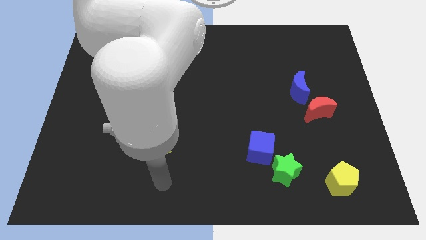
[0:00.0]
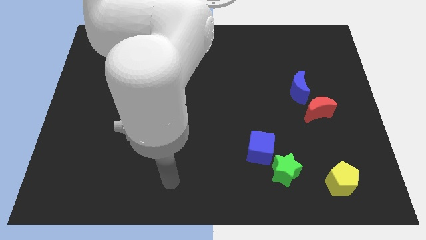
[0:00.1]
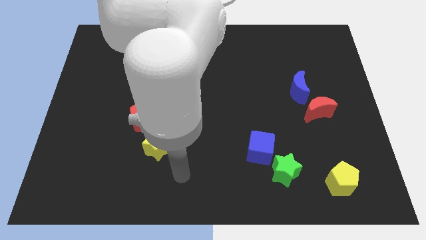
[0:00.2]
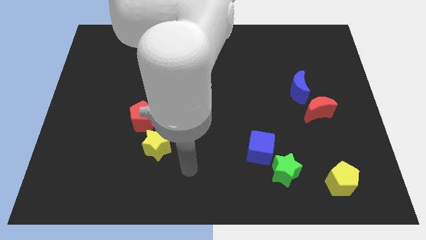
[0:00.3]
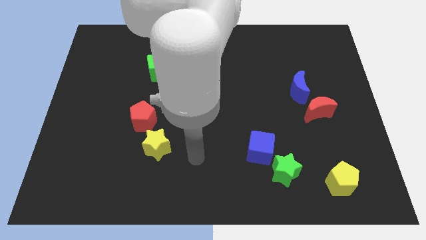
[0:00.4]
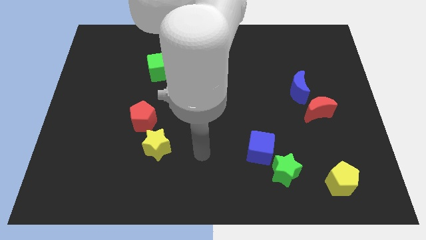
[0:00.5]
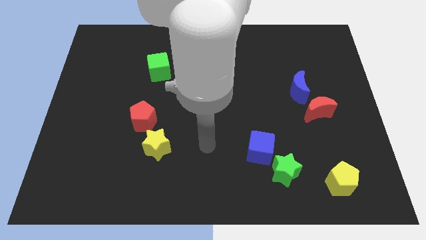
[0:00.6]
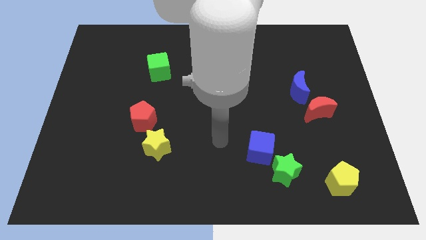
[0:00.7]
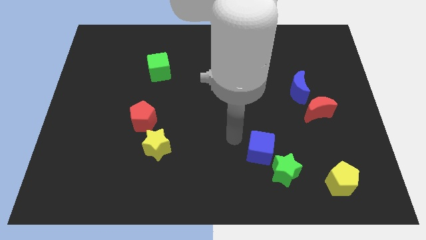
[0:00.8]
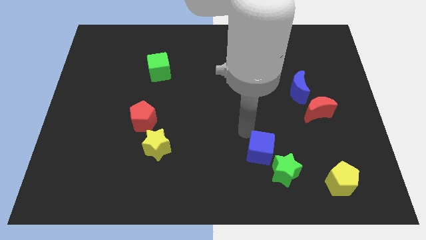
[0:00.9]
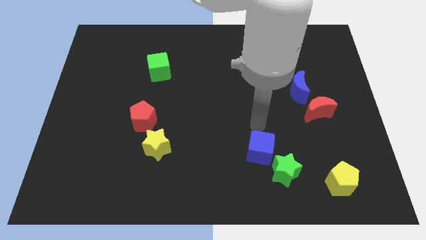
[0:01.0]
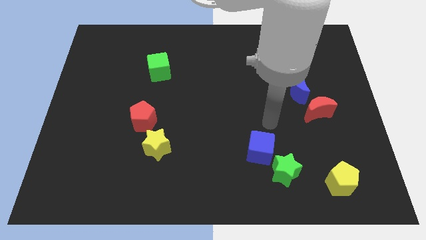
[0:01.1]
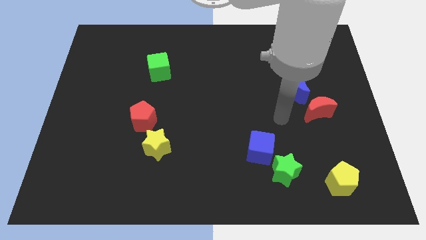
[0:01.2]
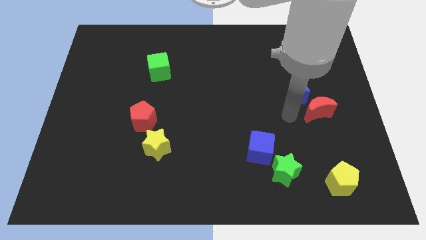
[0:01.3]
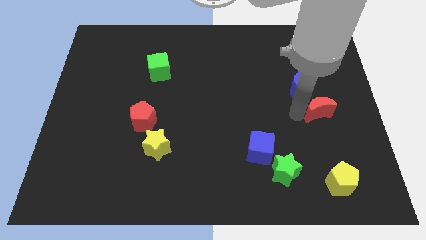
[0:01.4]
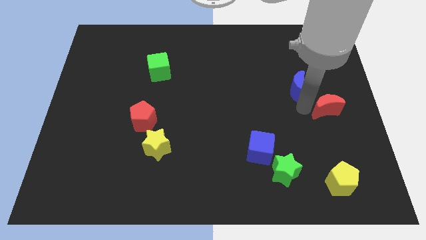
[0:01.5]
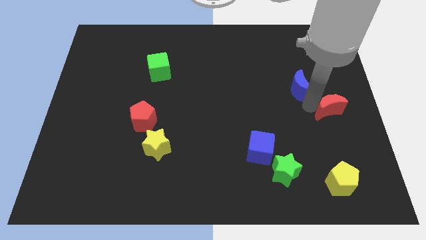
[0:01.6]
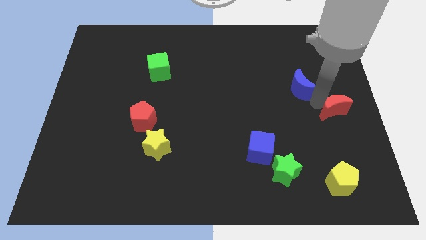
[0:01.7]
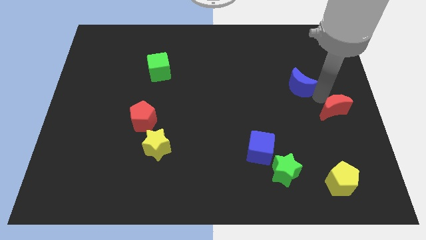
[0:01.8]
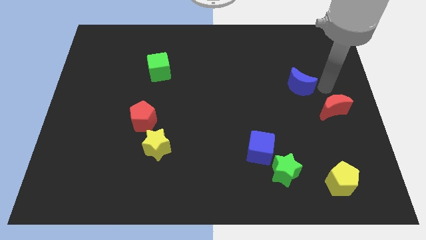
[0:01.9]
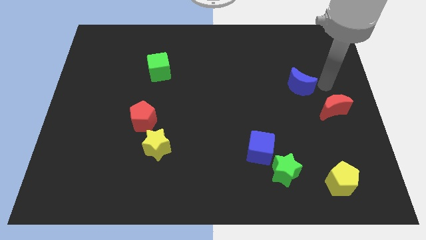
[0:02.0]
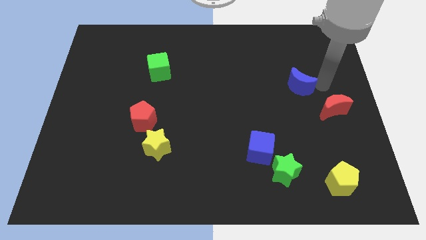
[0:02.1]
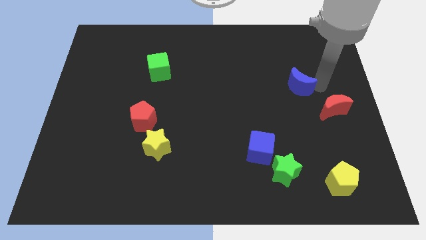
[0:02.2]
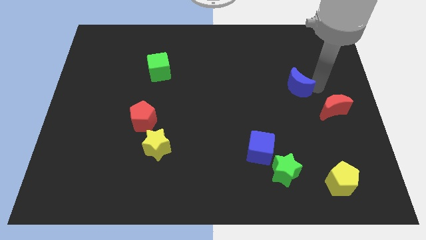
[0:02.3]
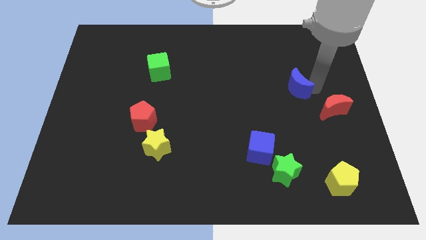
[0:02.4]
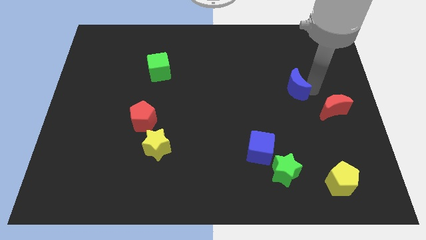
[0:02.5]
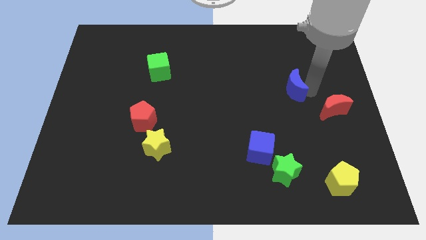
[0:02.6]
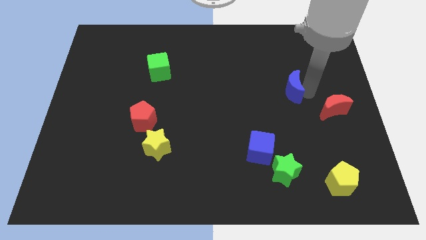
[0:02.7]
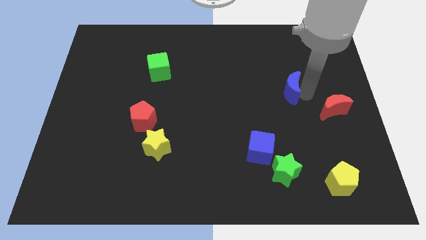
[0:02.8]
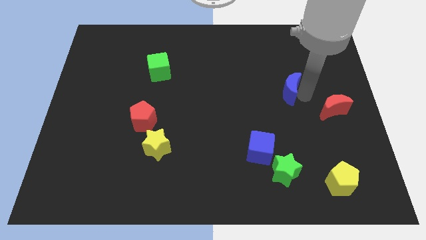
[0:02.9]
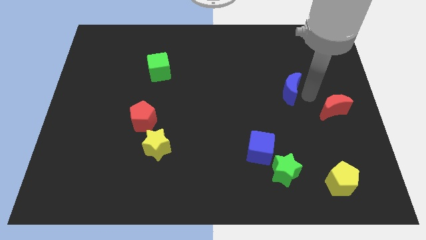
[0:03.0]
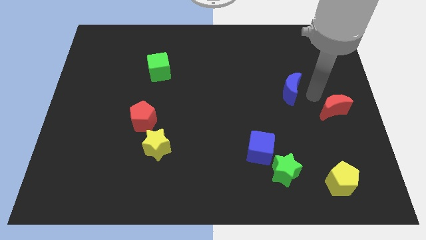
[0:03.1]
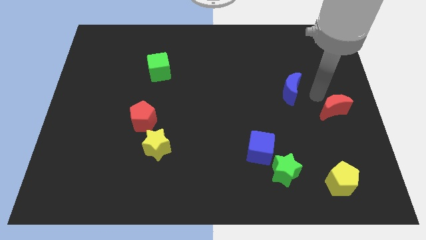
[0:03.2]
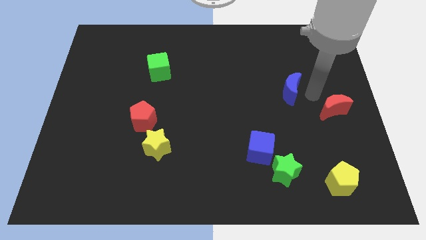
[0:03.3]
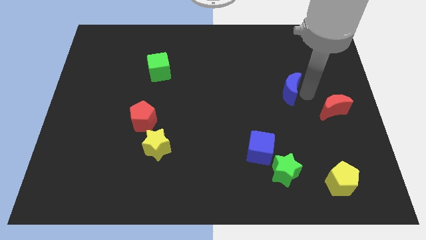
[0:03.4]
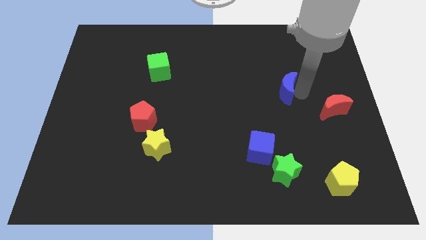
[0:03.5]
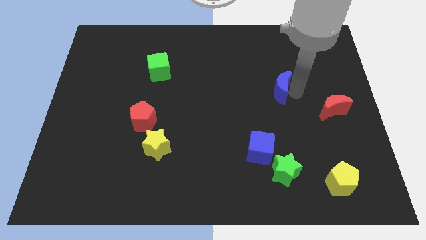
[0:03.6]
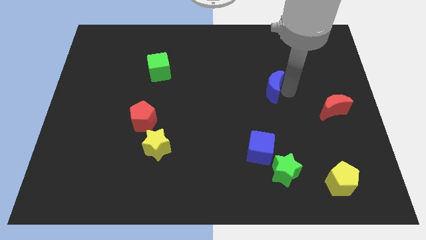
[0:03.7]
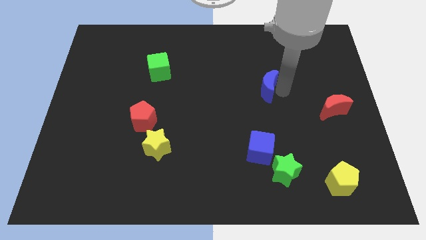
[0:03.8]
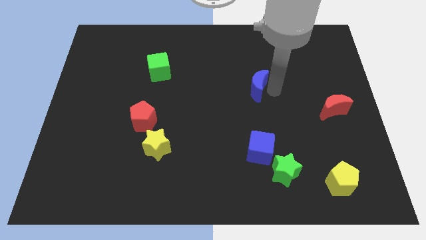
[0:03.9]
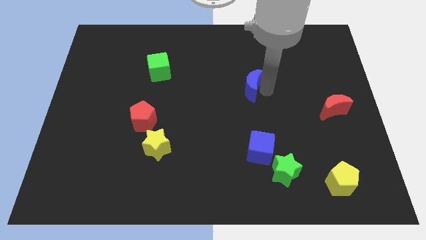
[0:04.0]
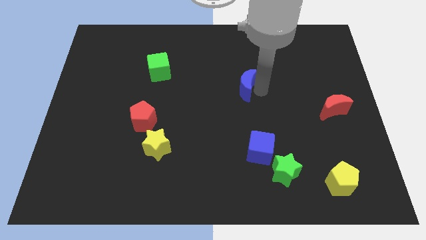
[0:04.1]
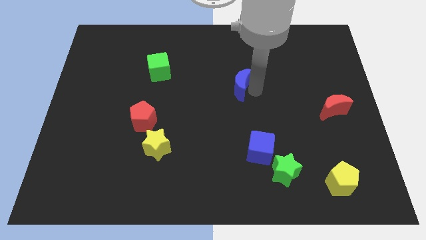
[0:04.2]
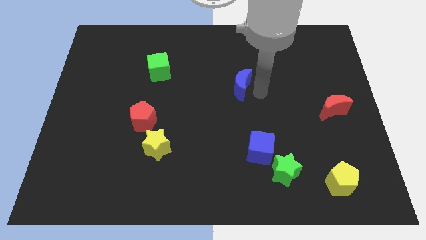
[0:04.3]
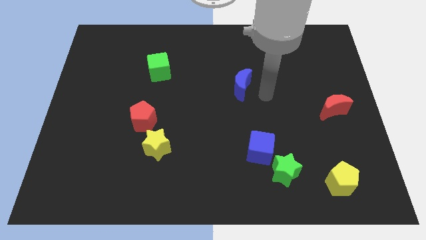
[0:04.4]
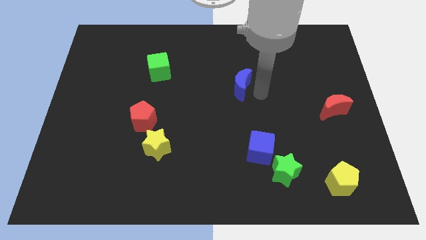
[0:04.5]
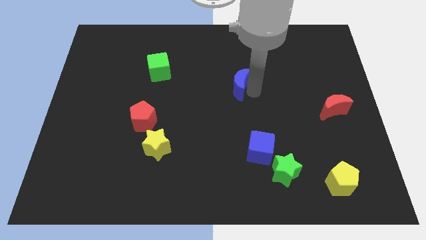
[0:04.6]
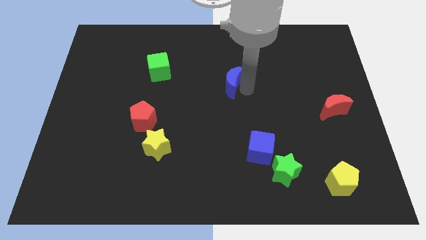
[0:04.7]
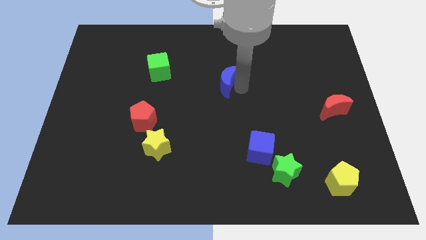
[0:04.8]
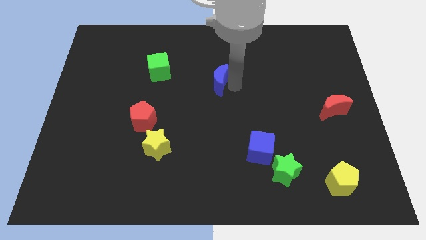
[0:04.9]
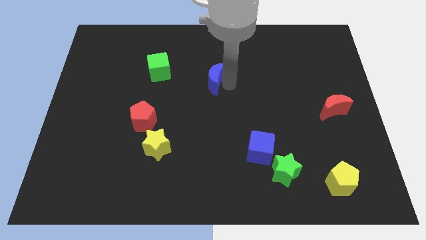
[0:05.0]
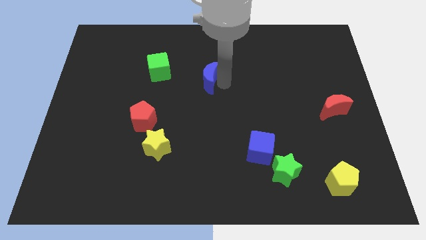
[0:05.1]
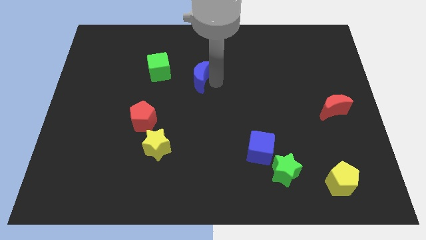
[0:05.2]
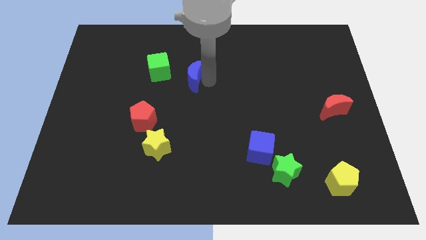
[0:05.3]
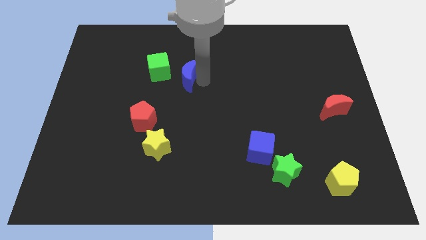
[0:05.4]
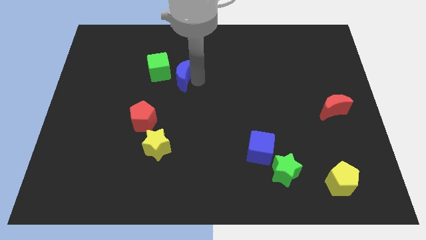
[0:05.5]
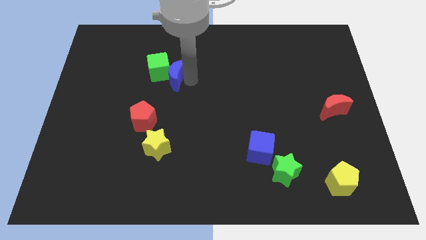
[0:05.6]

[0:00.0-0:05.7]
push the blue moon next to the green cube

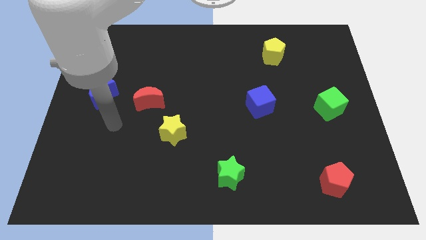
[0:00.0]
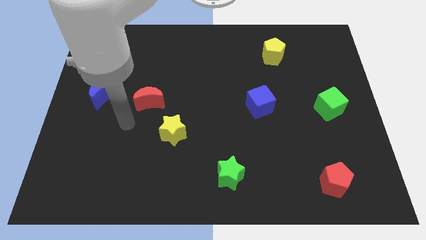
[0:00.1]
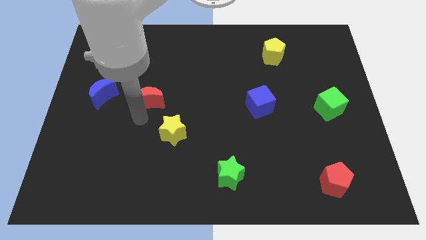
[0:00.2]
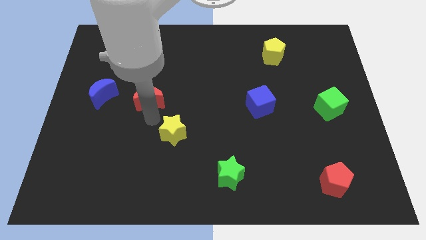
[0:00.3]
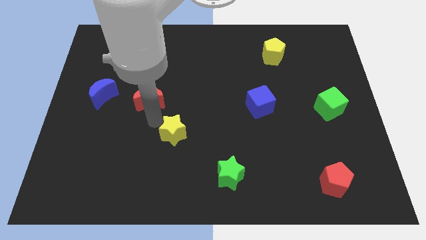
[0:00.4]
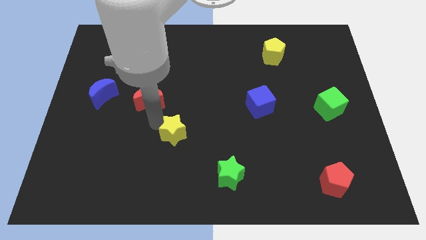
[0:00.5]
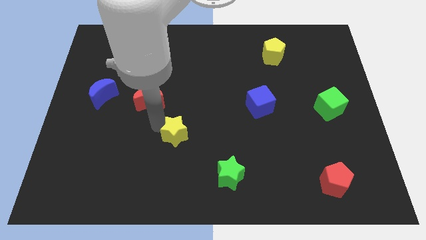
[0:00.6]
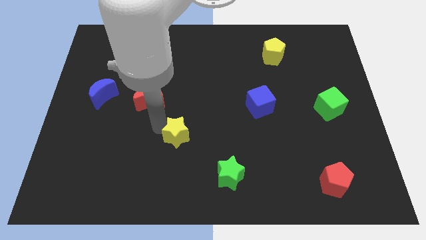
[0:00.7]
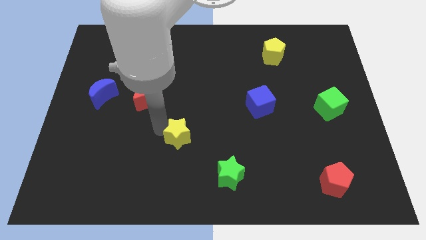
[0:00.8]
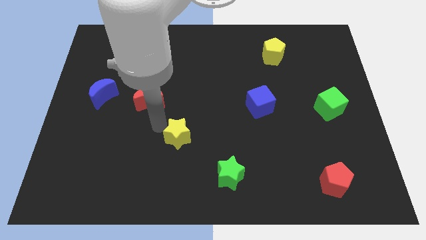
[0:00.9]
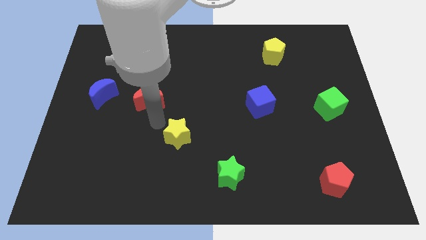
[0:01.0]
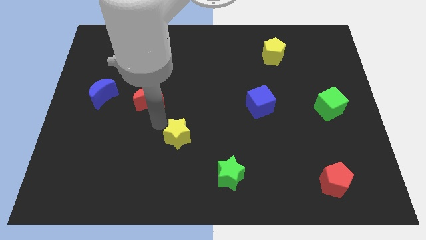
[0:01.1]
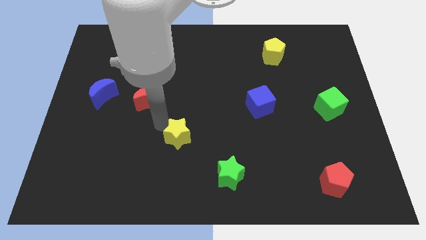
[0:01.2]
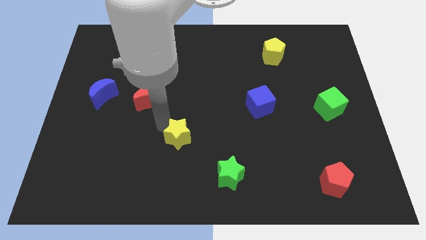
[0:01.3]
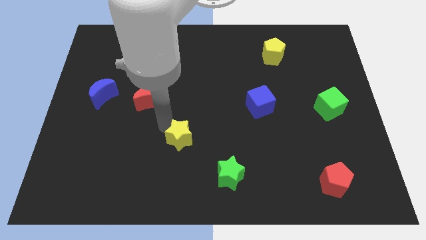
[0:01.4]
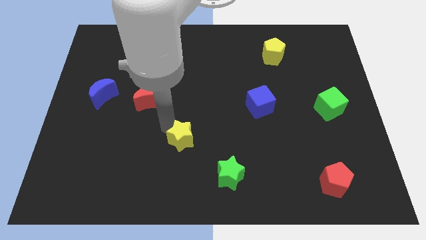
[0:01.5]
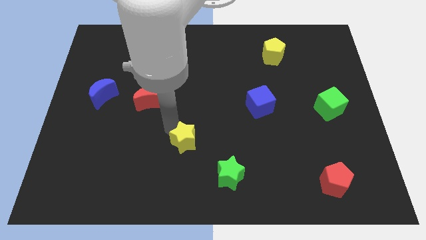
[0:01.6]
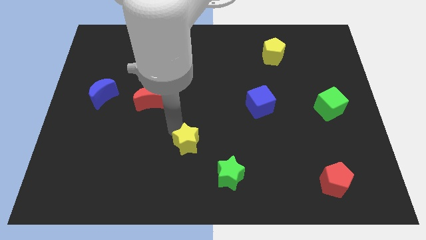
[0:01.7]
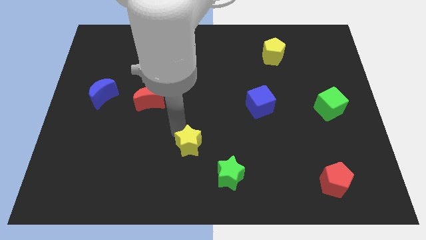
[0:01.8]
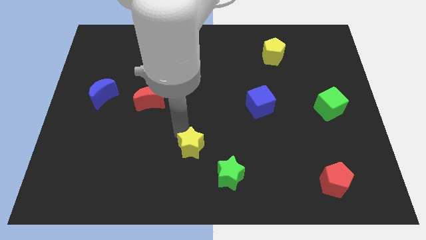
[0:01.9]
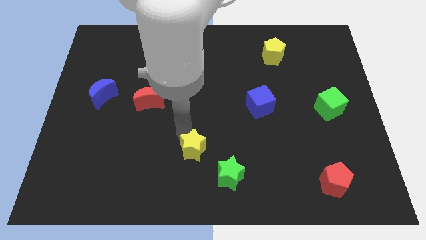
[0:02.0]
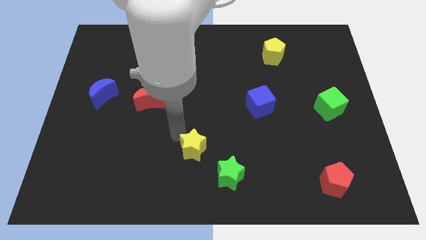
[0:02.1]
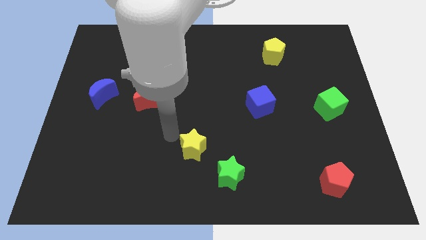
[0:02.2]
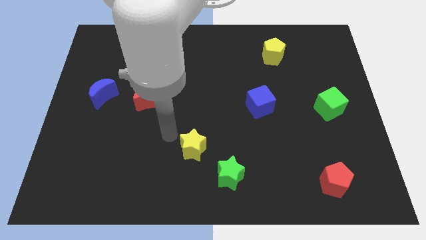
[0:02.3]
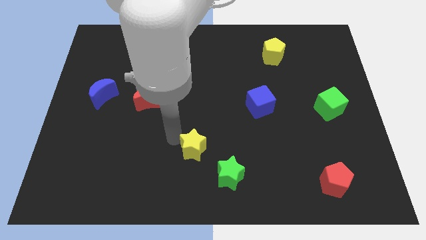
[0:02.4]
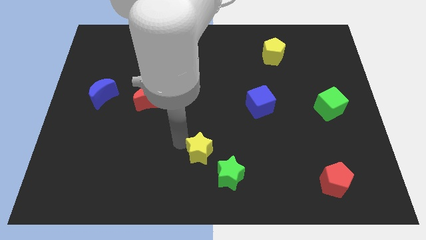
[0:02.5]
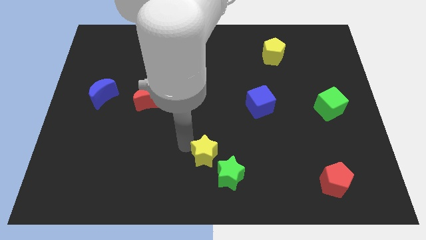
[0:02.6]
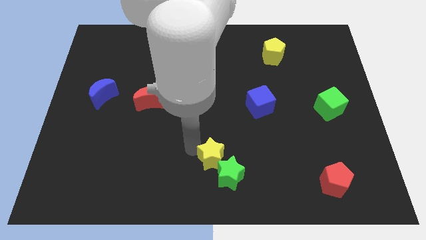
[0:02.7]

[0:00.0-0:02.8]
put the yellow star to the green star
